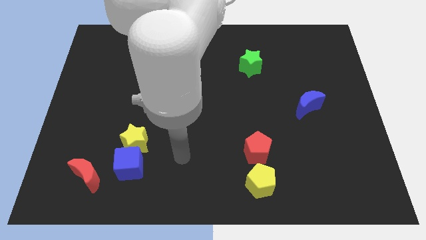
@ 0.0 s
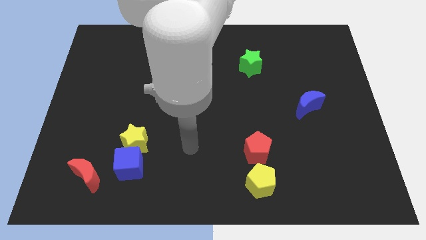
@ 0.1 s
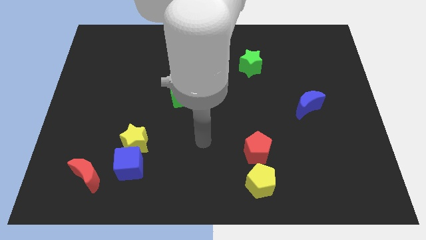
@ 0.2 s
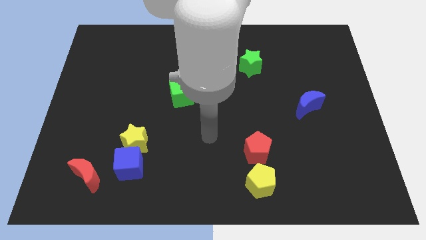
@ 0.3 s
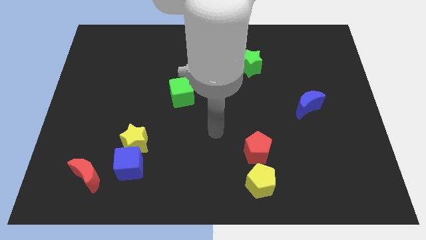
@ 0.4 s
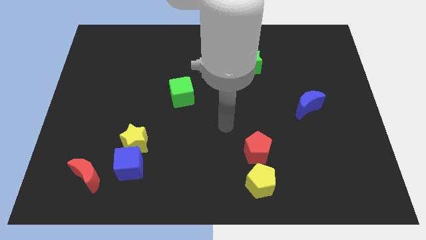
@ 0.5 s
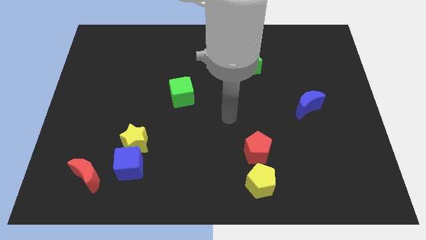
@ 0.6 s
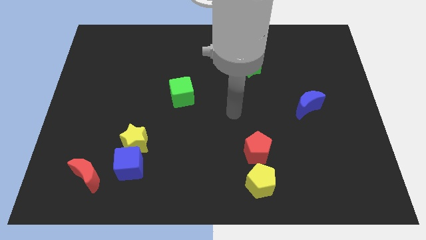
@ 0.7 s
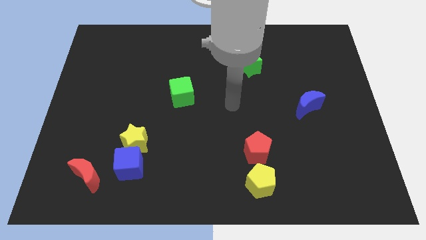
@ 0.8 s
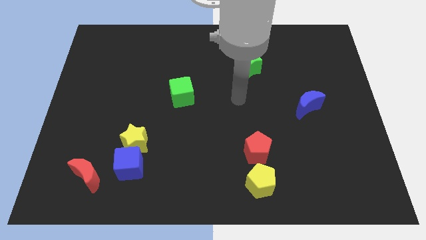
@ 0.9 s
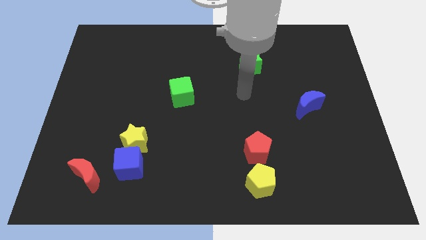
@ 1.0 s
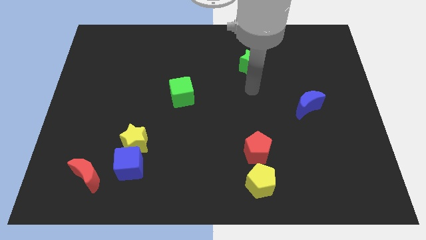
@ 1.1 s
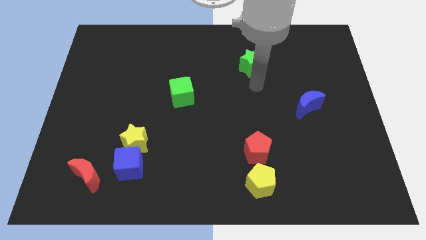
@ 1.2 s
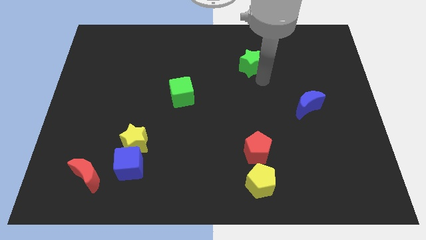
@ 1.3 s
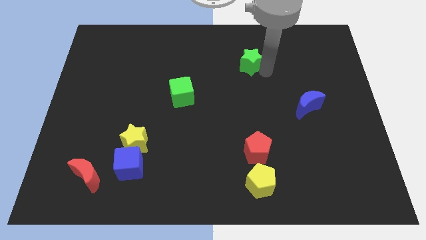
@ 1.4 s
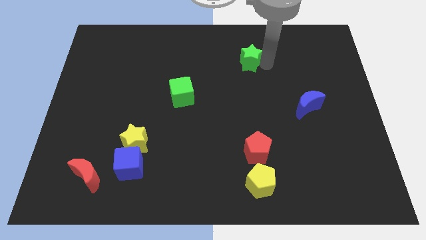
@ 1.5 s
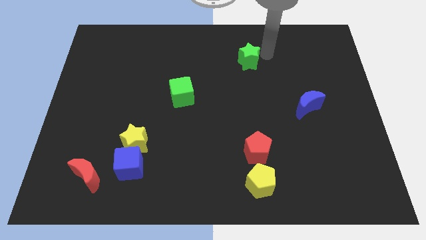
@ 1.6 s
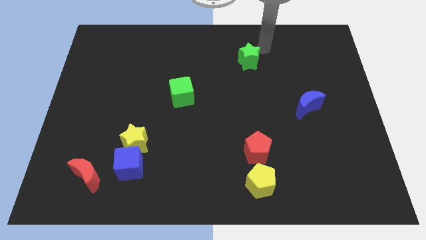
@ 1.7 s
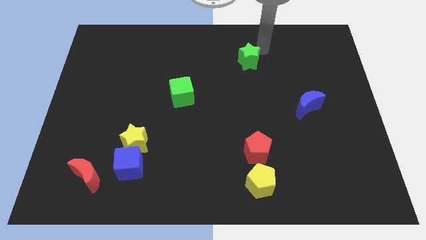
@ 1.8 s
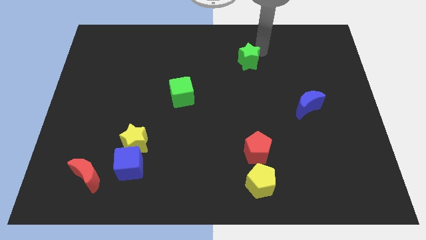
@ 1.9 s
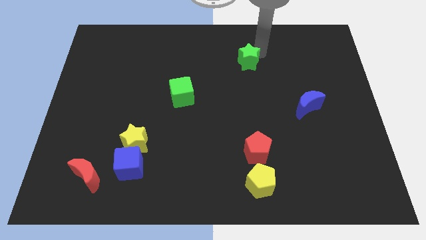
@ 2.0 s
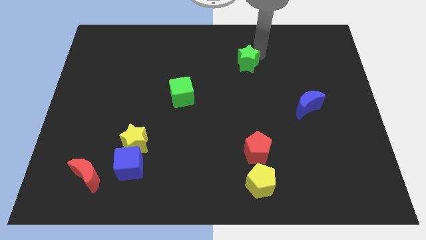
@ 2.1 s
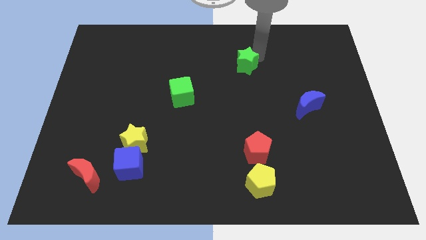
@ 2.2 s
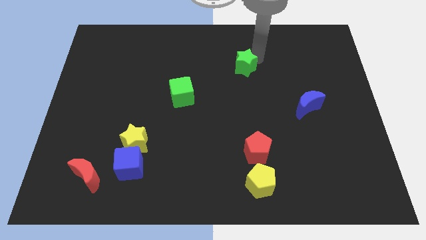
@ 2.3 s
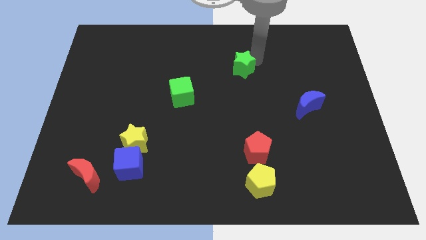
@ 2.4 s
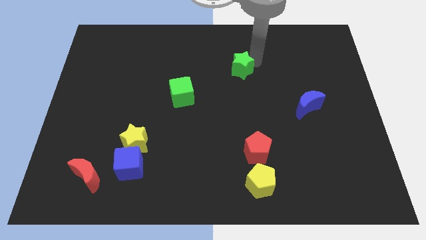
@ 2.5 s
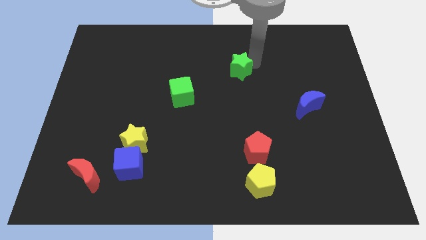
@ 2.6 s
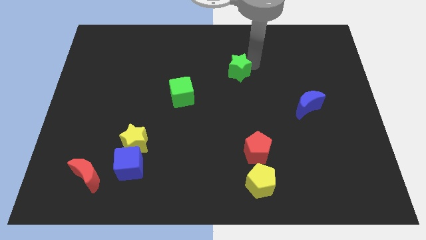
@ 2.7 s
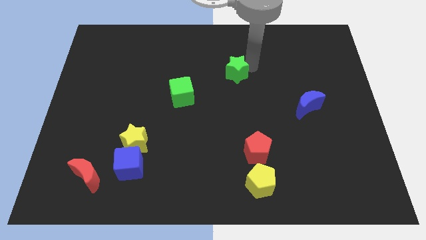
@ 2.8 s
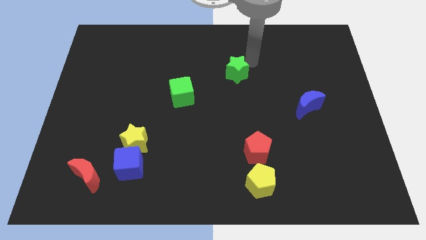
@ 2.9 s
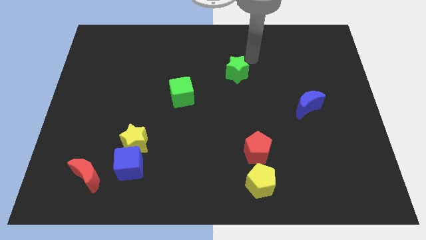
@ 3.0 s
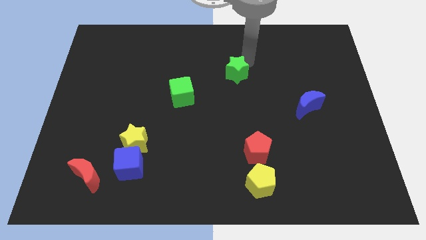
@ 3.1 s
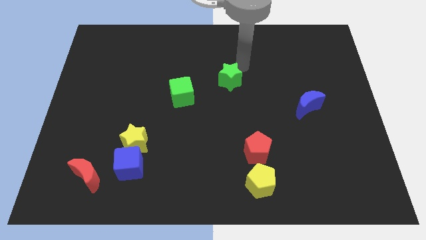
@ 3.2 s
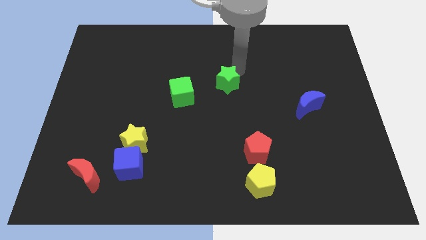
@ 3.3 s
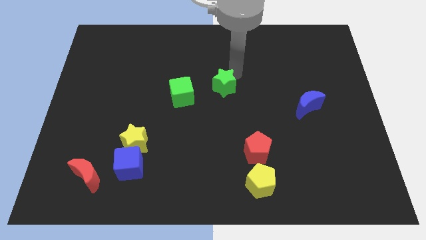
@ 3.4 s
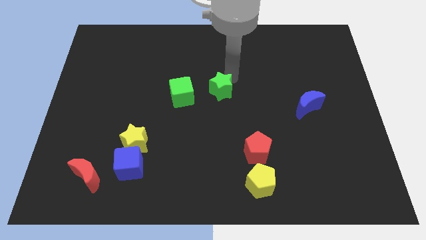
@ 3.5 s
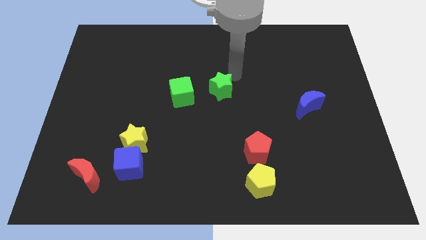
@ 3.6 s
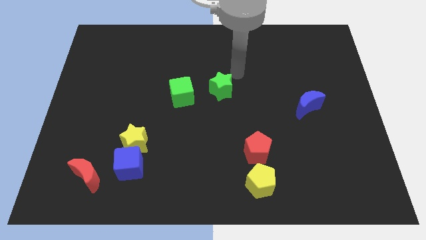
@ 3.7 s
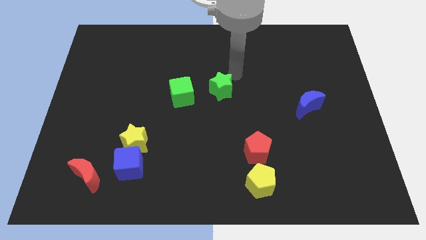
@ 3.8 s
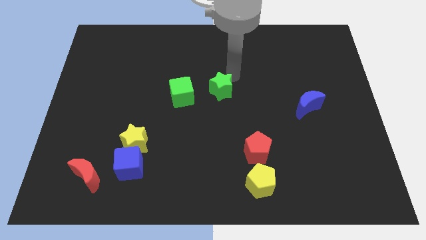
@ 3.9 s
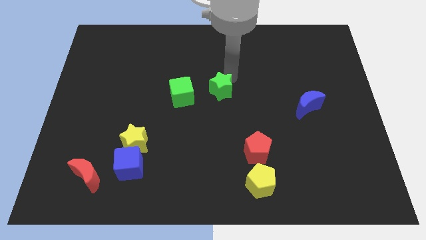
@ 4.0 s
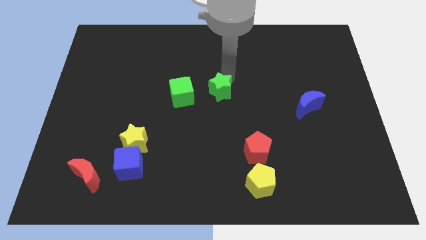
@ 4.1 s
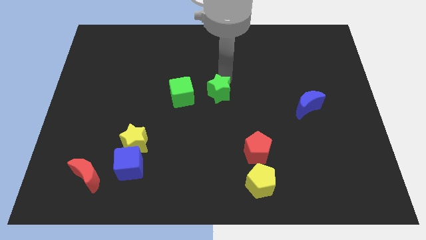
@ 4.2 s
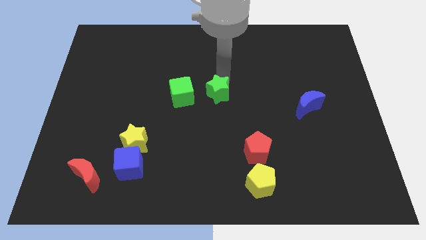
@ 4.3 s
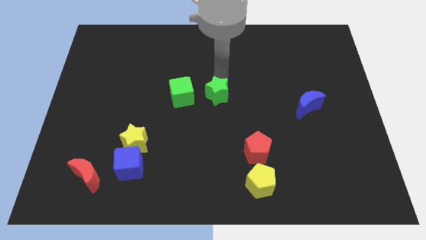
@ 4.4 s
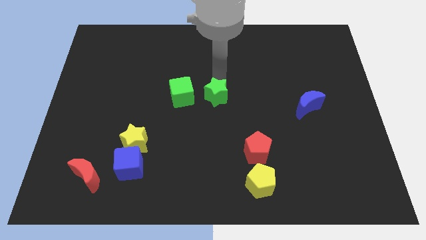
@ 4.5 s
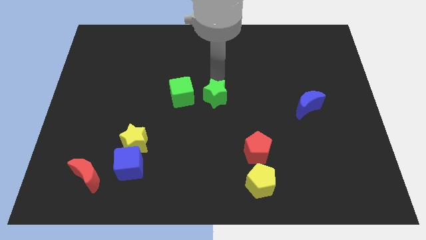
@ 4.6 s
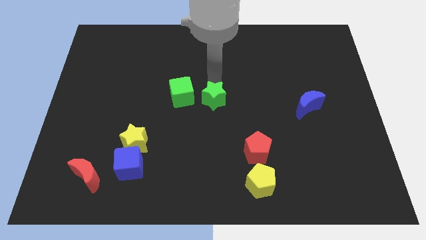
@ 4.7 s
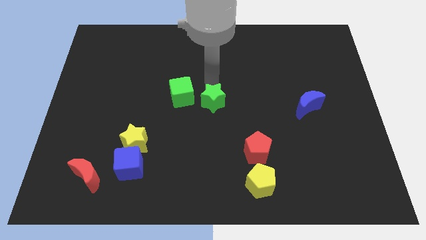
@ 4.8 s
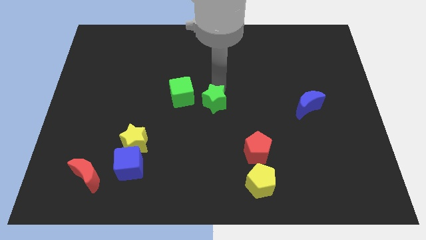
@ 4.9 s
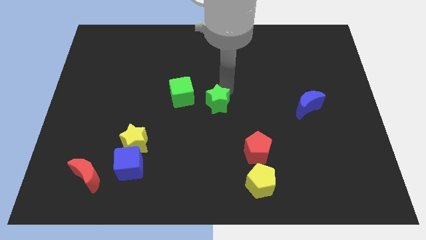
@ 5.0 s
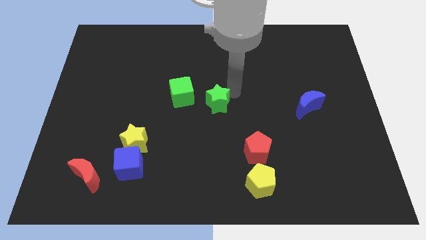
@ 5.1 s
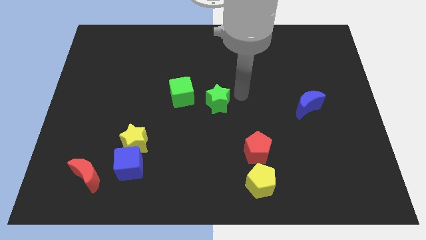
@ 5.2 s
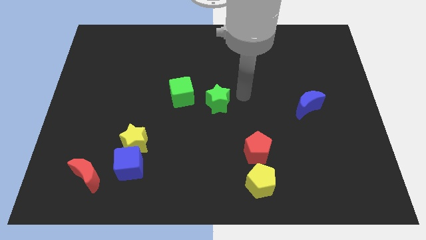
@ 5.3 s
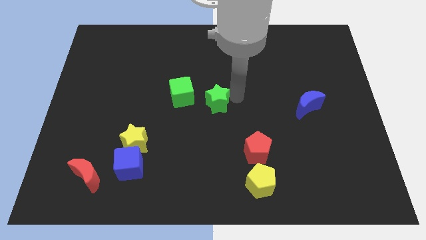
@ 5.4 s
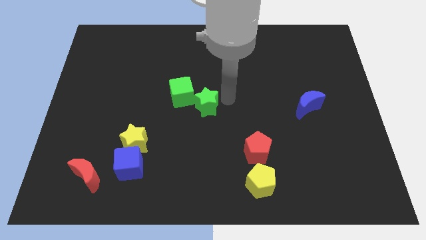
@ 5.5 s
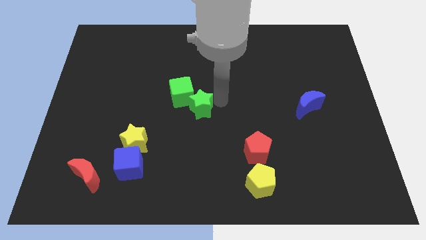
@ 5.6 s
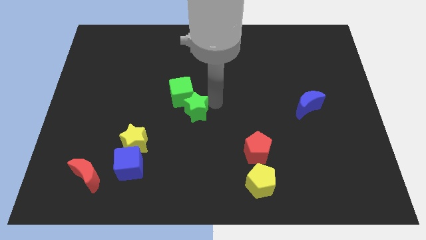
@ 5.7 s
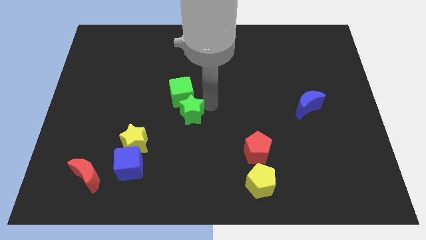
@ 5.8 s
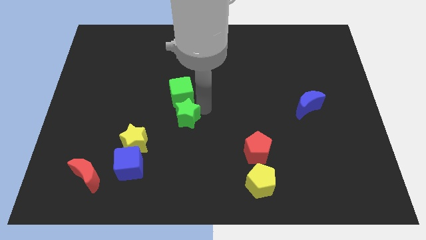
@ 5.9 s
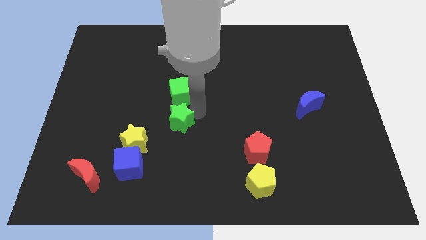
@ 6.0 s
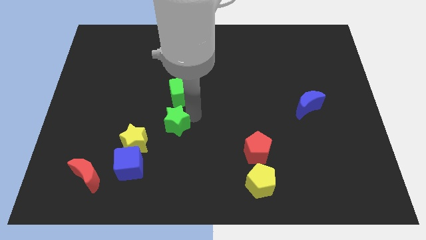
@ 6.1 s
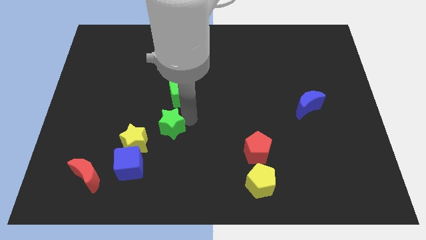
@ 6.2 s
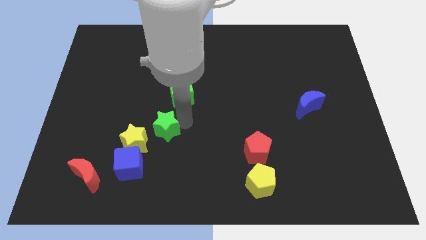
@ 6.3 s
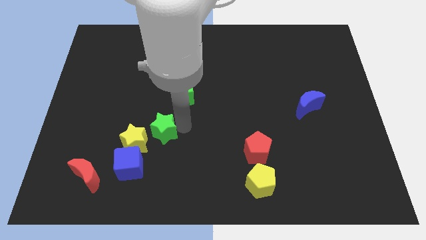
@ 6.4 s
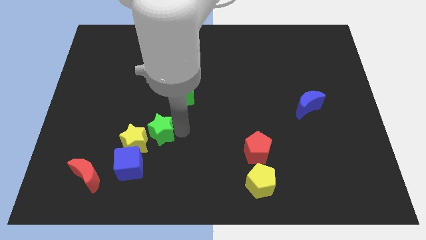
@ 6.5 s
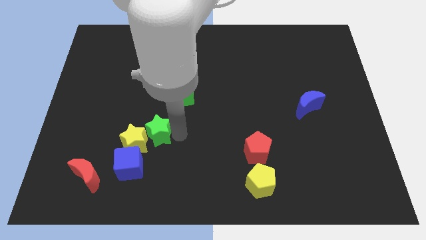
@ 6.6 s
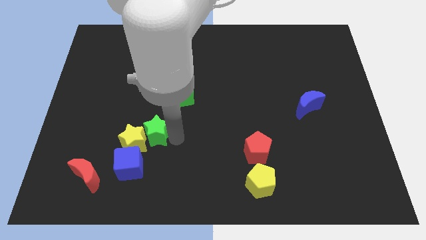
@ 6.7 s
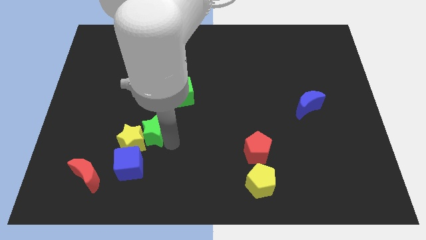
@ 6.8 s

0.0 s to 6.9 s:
put the green star to the top side of the blue cube
